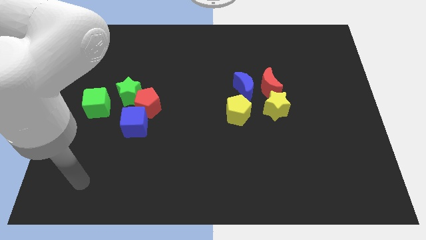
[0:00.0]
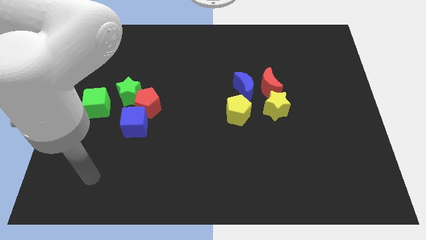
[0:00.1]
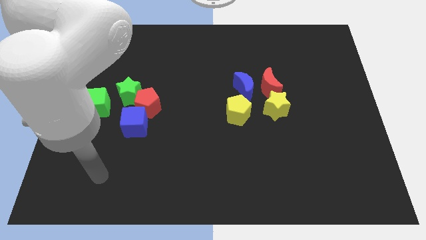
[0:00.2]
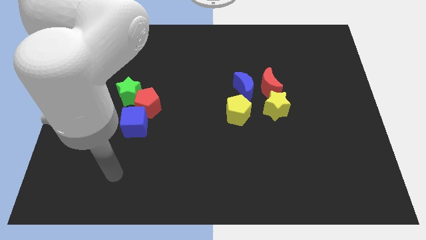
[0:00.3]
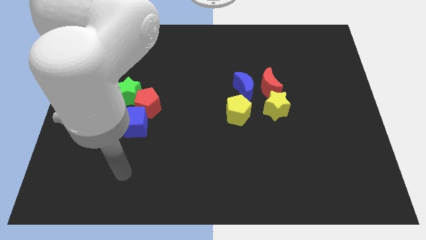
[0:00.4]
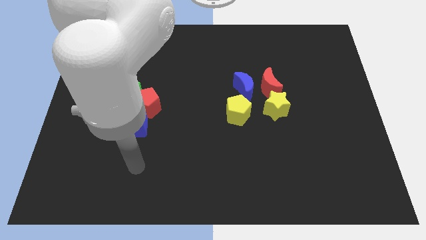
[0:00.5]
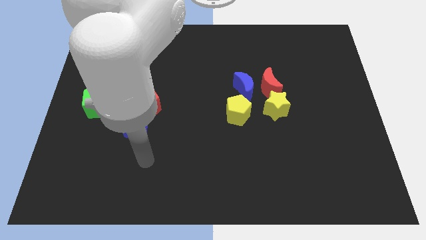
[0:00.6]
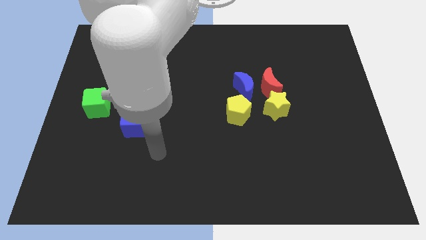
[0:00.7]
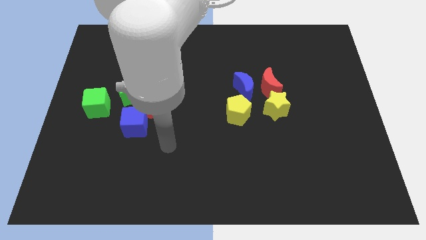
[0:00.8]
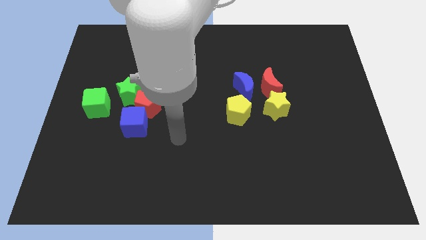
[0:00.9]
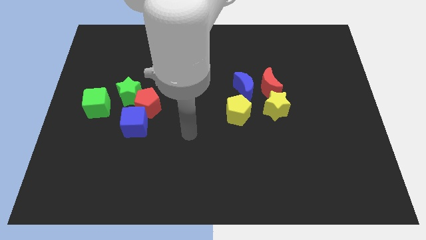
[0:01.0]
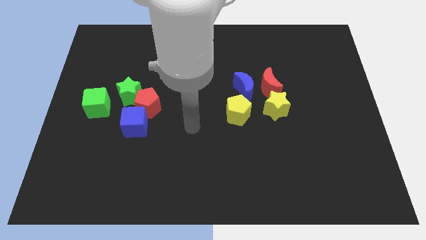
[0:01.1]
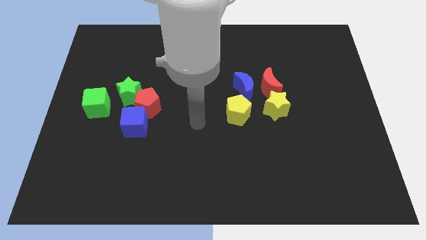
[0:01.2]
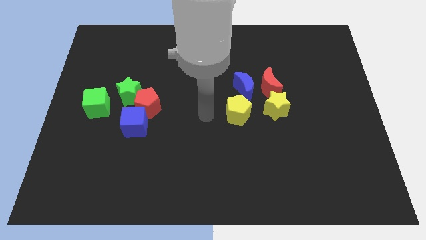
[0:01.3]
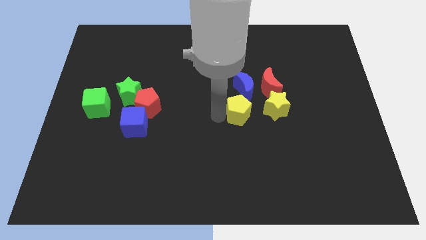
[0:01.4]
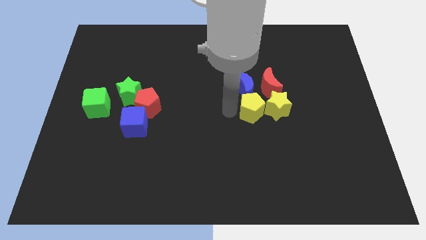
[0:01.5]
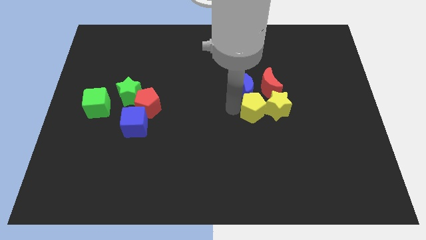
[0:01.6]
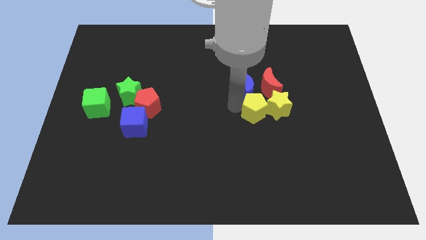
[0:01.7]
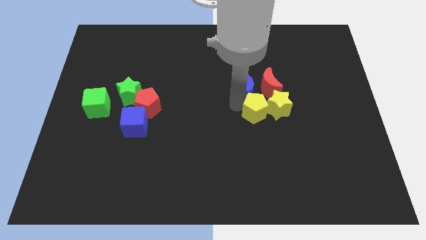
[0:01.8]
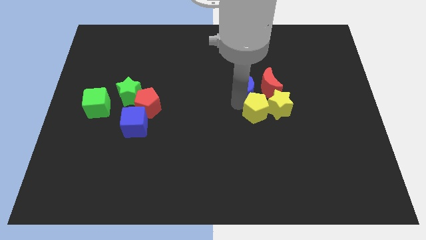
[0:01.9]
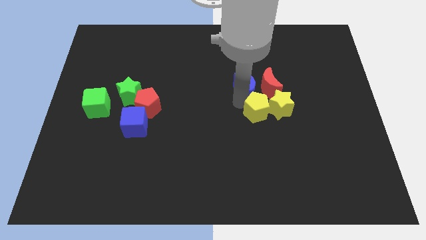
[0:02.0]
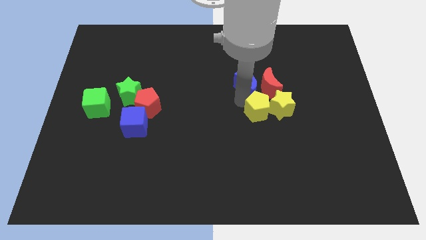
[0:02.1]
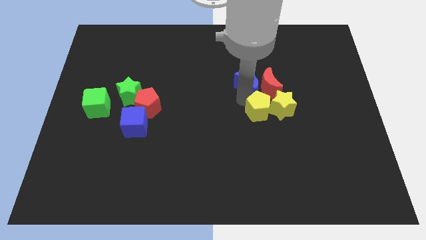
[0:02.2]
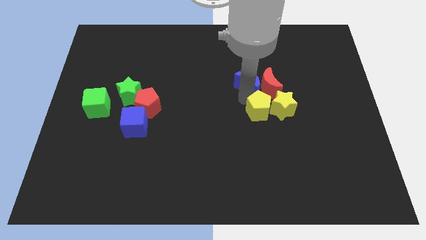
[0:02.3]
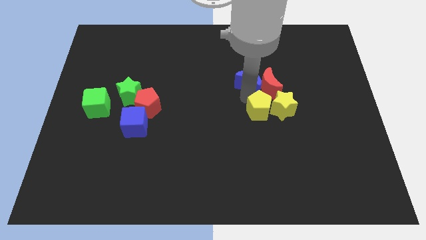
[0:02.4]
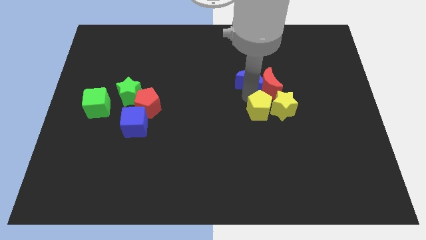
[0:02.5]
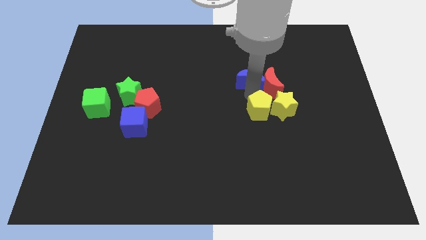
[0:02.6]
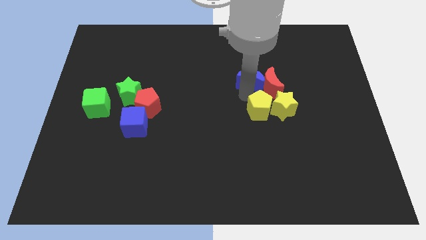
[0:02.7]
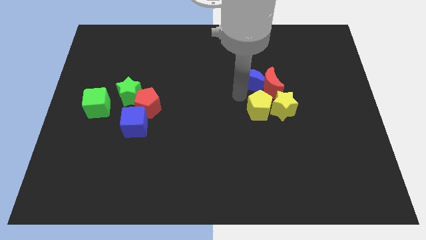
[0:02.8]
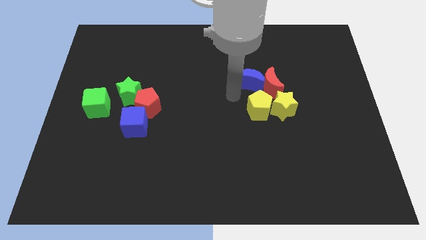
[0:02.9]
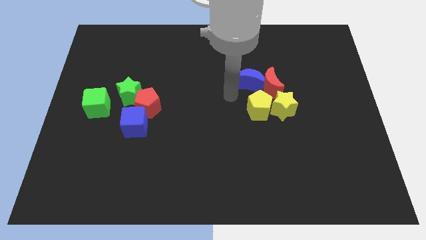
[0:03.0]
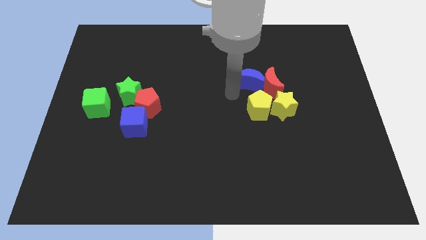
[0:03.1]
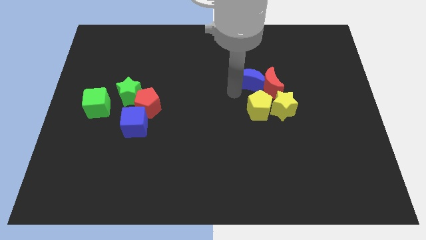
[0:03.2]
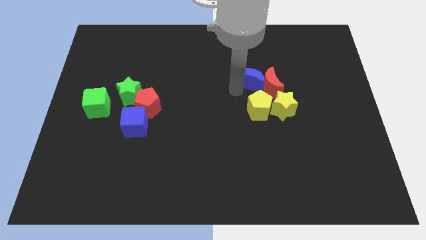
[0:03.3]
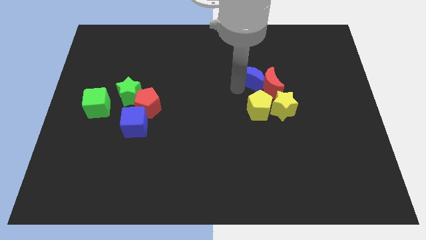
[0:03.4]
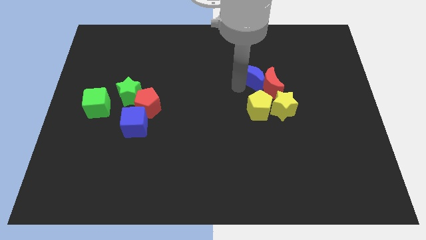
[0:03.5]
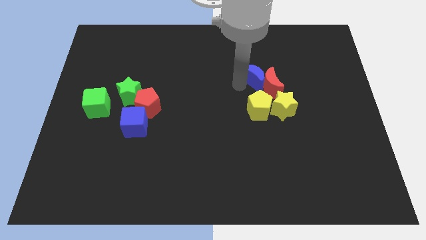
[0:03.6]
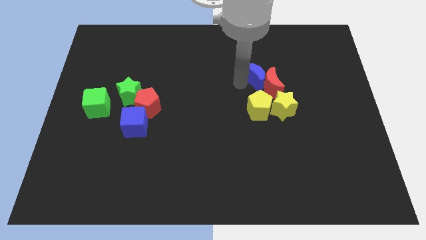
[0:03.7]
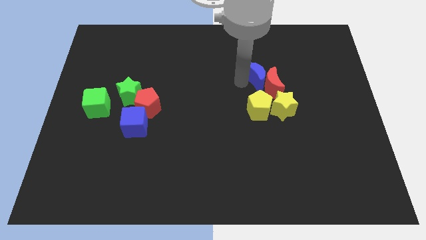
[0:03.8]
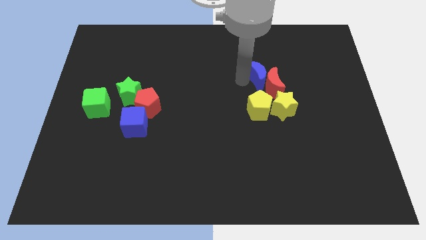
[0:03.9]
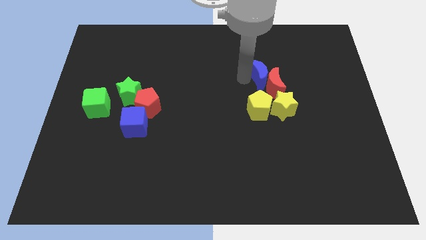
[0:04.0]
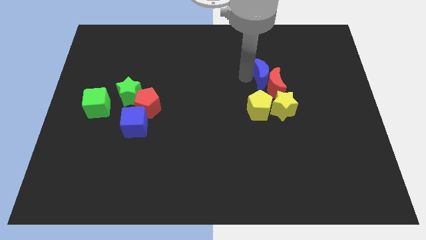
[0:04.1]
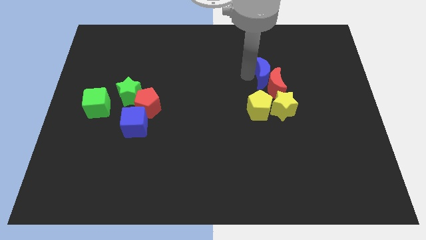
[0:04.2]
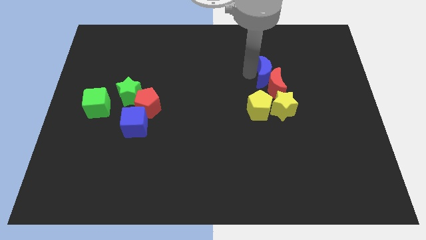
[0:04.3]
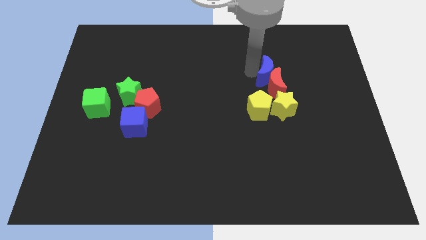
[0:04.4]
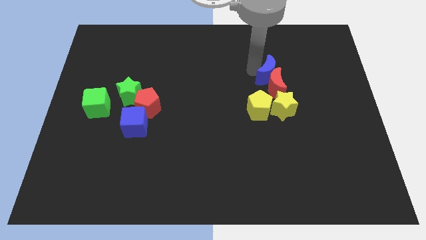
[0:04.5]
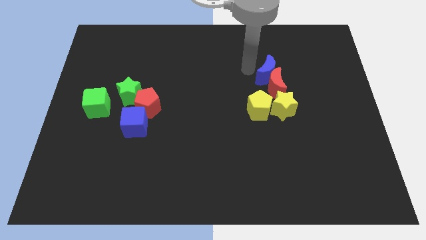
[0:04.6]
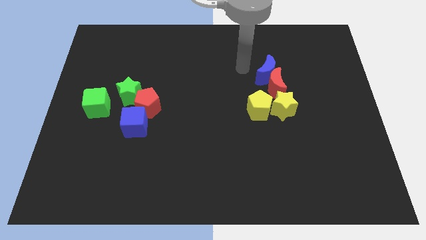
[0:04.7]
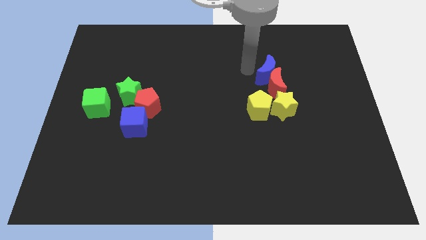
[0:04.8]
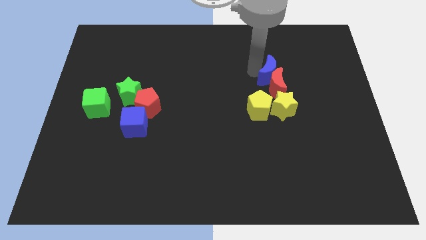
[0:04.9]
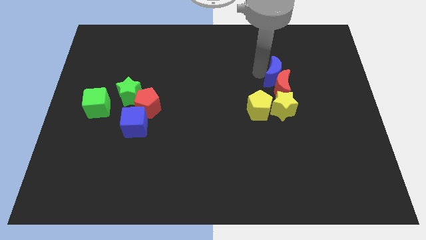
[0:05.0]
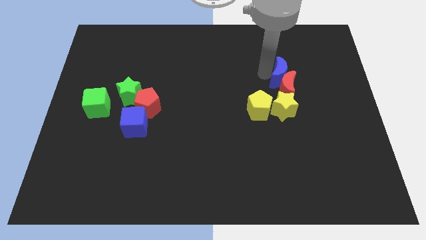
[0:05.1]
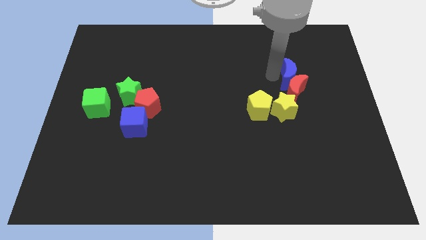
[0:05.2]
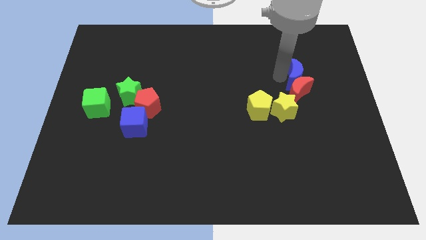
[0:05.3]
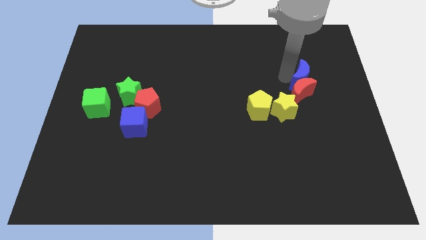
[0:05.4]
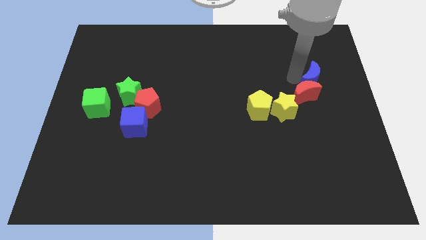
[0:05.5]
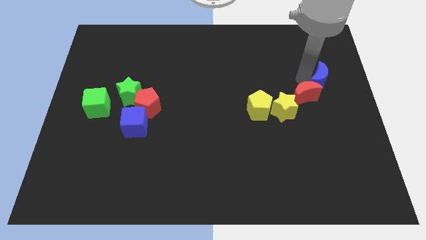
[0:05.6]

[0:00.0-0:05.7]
push the blue moon to the right side of the board
